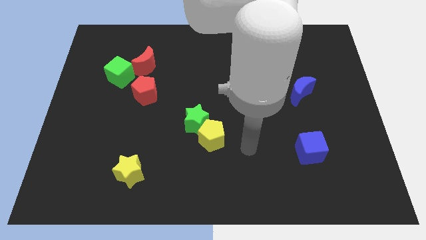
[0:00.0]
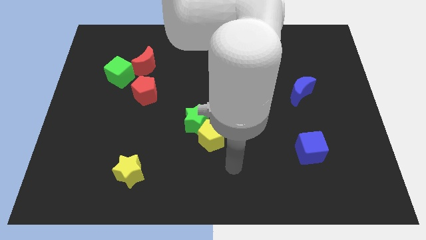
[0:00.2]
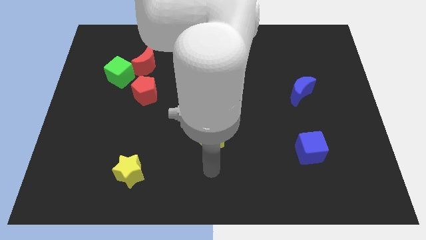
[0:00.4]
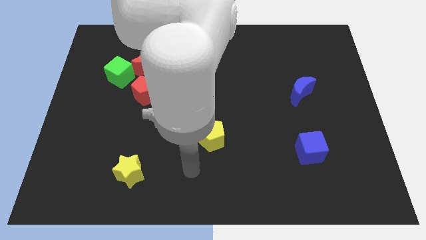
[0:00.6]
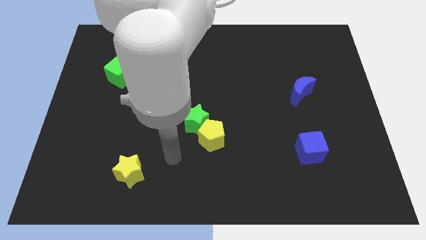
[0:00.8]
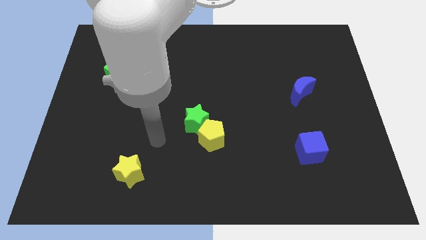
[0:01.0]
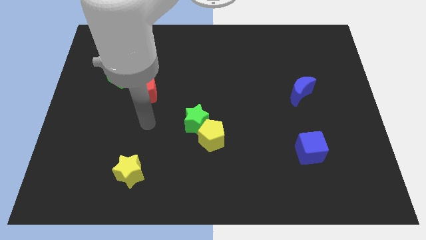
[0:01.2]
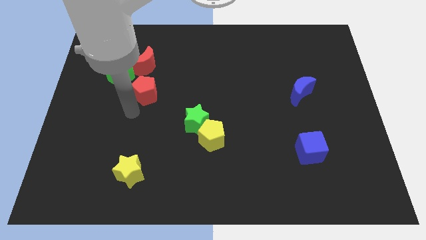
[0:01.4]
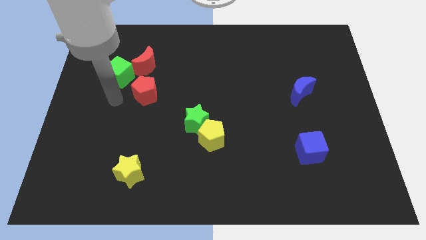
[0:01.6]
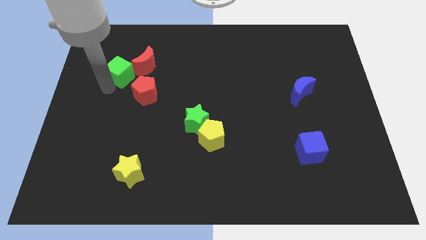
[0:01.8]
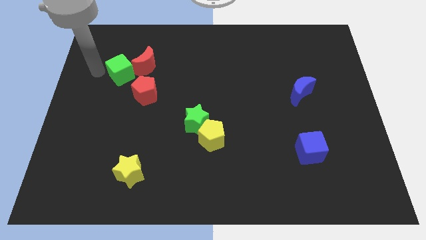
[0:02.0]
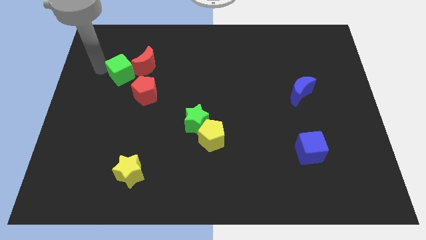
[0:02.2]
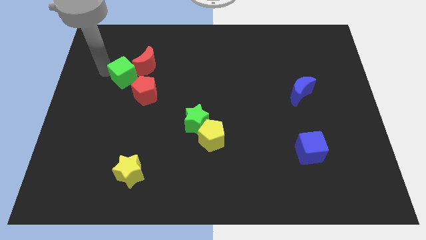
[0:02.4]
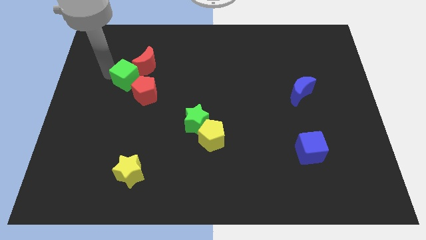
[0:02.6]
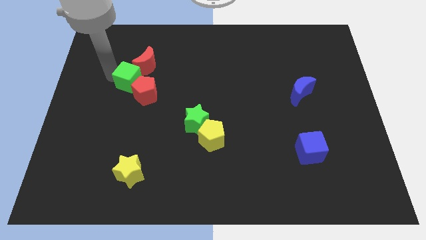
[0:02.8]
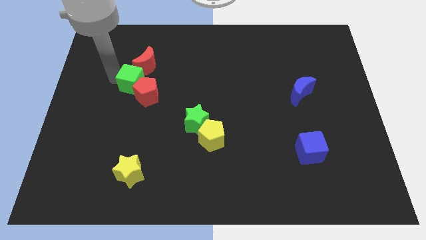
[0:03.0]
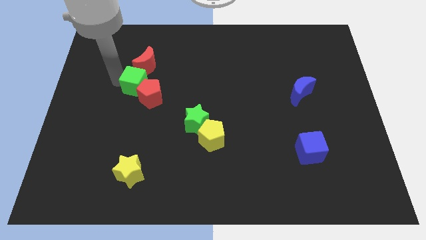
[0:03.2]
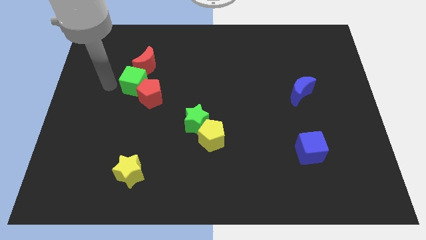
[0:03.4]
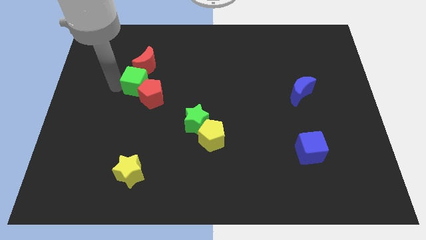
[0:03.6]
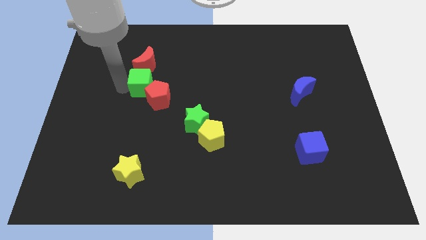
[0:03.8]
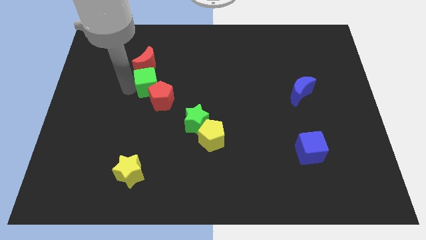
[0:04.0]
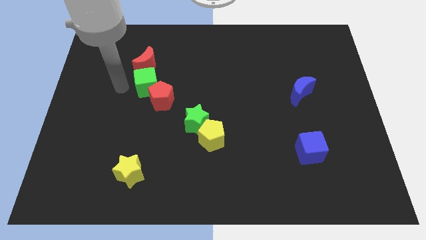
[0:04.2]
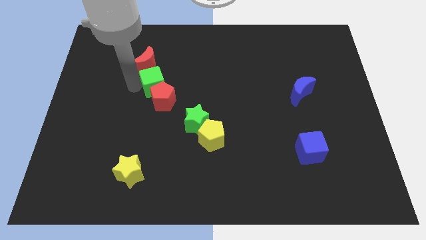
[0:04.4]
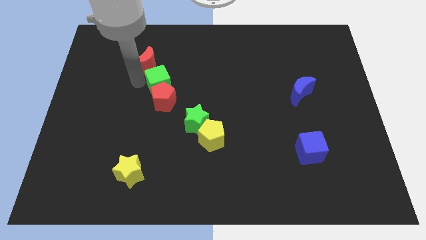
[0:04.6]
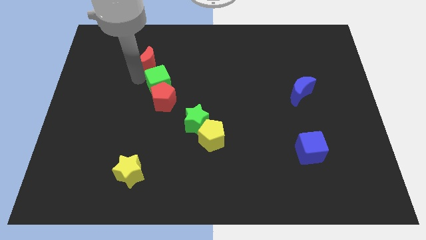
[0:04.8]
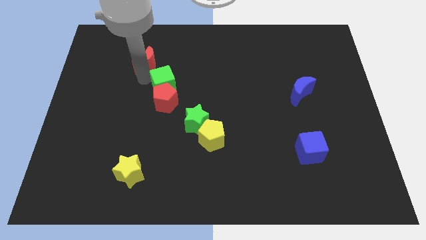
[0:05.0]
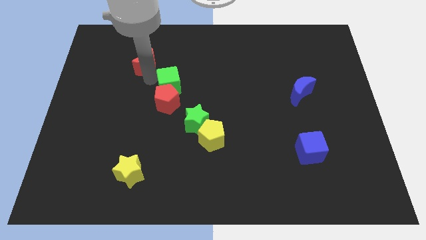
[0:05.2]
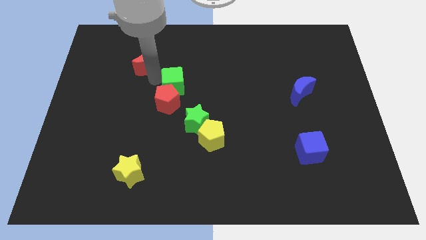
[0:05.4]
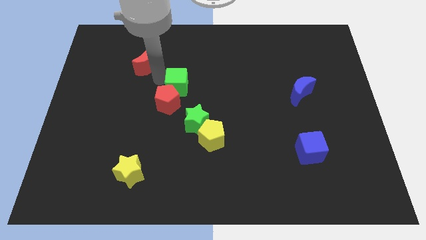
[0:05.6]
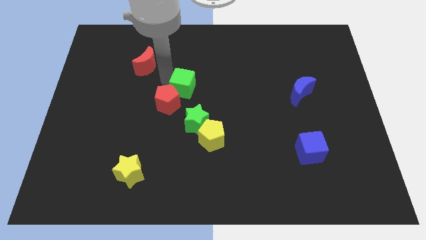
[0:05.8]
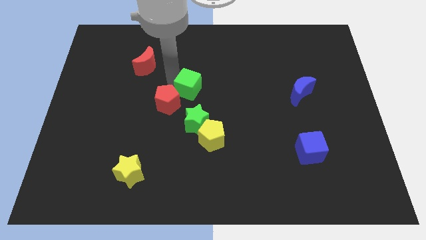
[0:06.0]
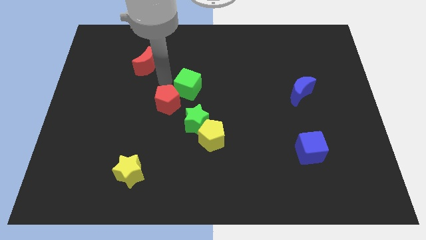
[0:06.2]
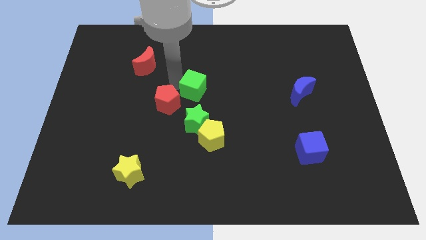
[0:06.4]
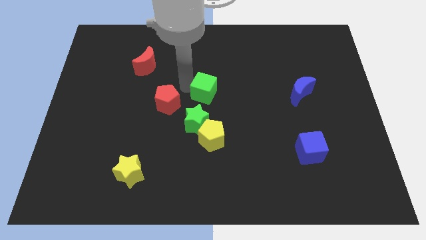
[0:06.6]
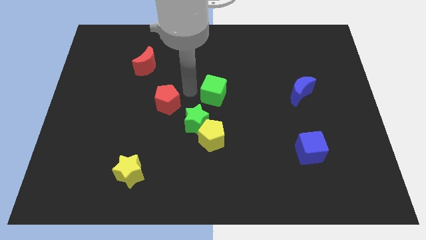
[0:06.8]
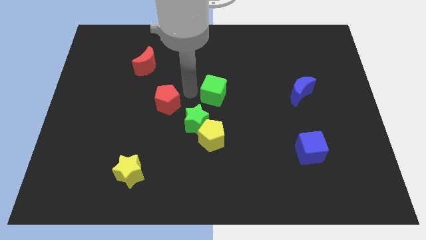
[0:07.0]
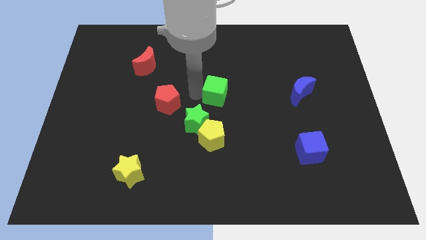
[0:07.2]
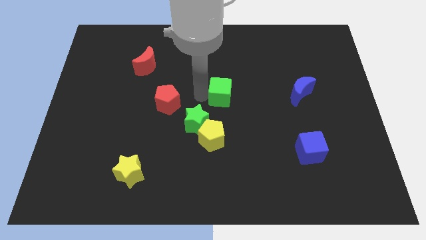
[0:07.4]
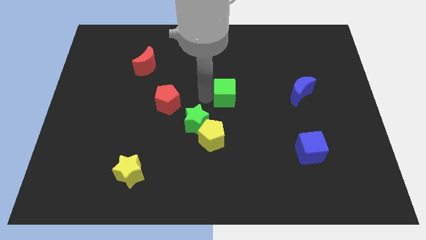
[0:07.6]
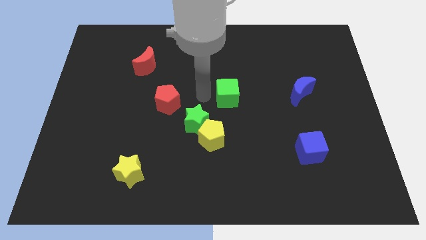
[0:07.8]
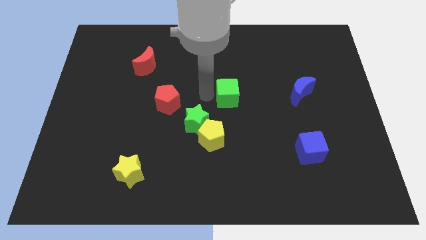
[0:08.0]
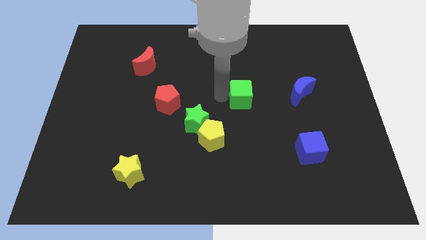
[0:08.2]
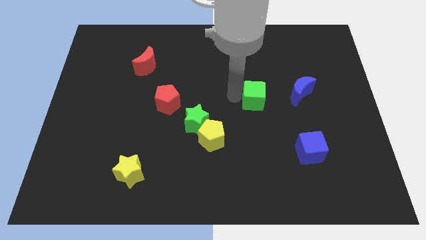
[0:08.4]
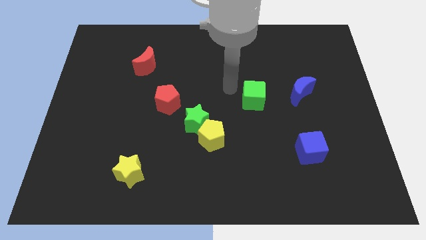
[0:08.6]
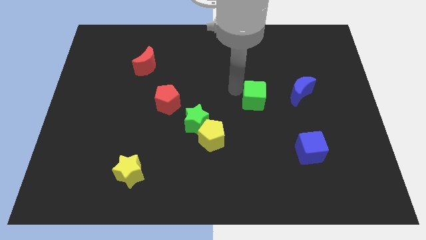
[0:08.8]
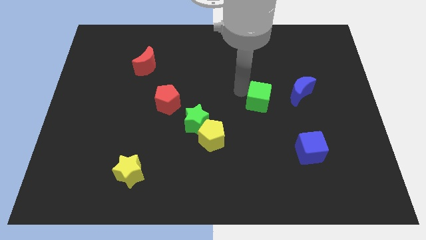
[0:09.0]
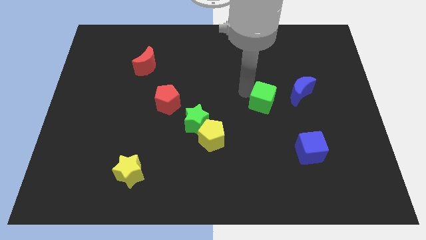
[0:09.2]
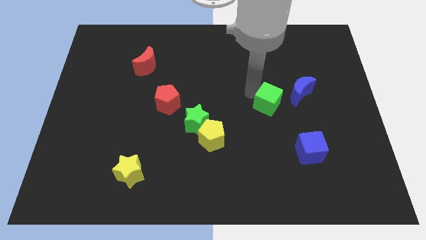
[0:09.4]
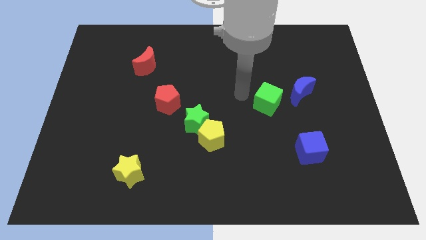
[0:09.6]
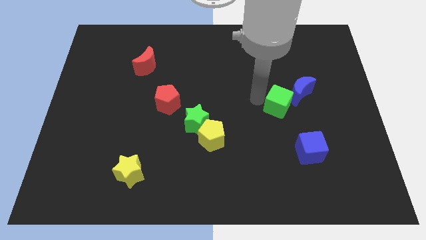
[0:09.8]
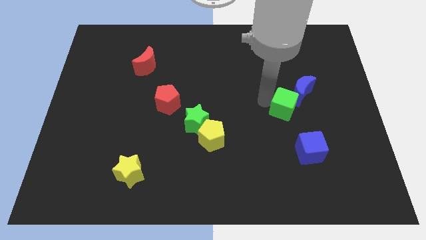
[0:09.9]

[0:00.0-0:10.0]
move the green cube above the blue cube

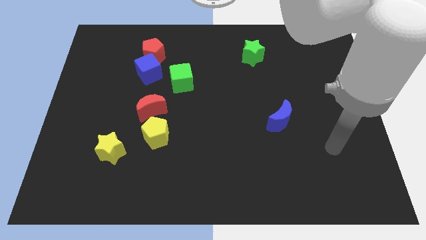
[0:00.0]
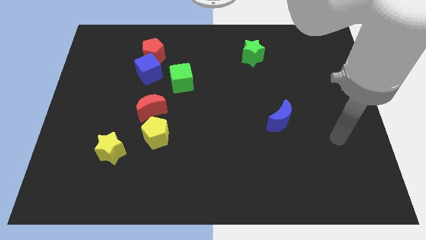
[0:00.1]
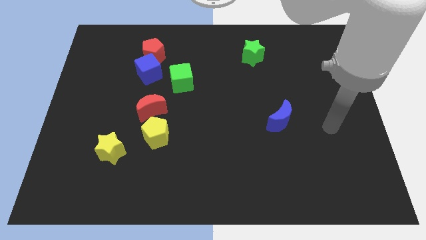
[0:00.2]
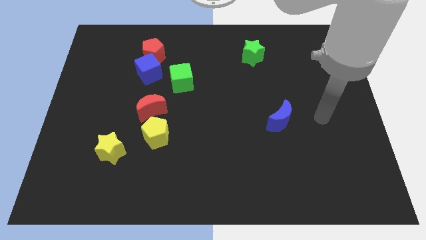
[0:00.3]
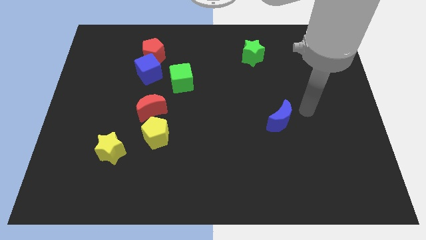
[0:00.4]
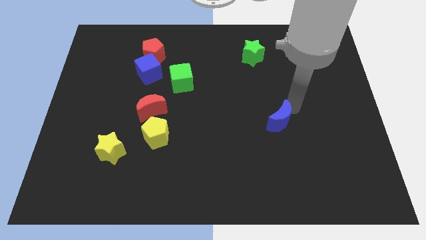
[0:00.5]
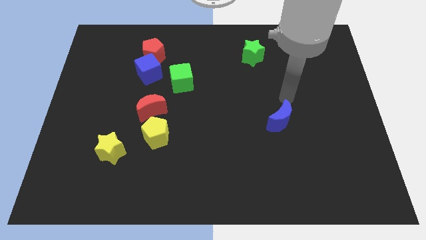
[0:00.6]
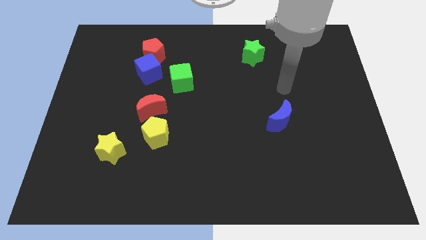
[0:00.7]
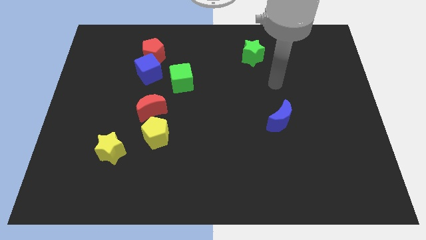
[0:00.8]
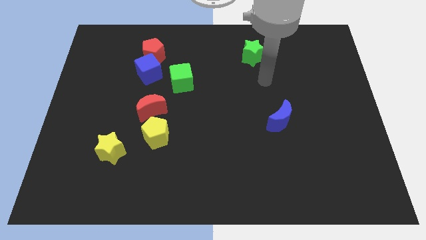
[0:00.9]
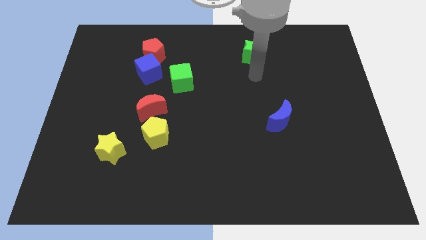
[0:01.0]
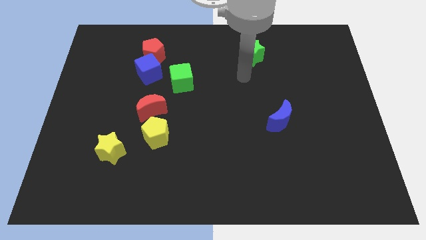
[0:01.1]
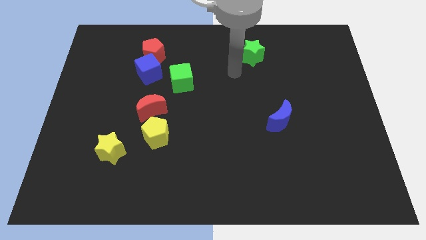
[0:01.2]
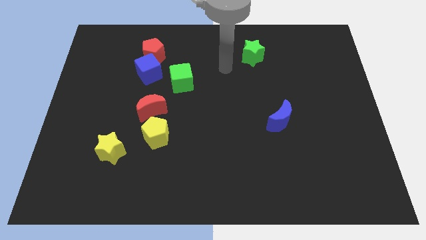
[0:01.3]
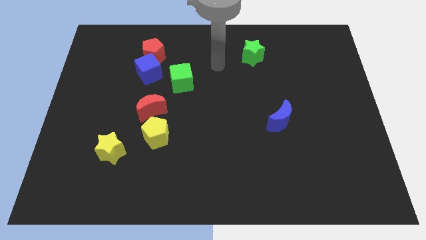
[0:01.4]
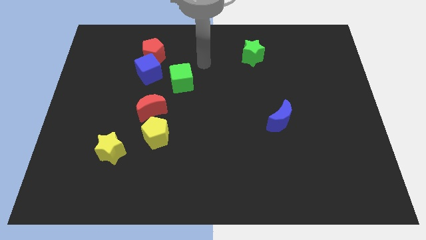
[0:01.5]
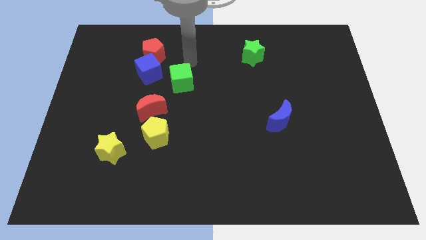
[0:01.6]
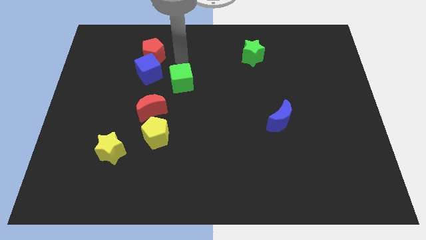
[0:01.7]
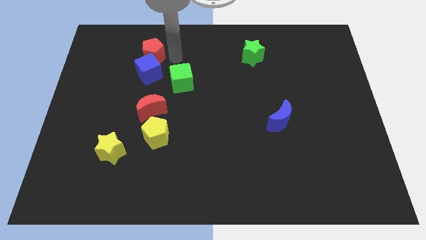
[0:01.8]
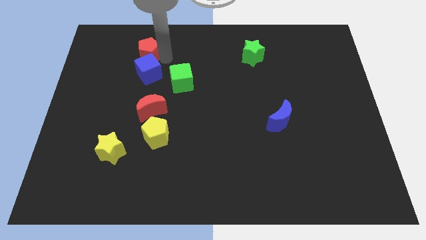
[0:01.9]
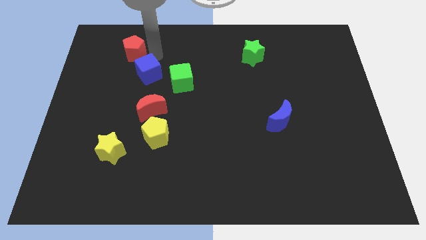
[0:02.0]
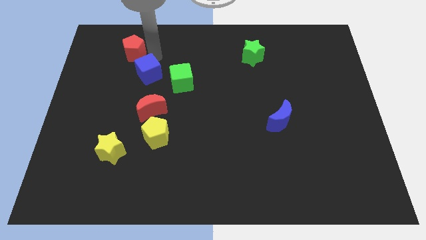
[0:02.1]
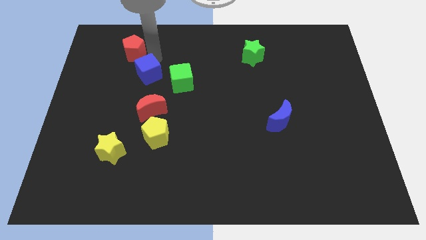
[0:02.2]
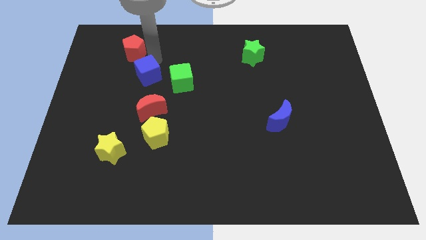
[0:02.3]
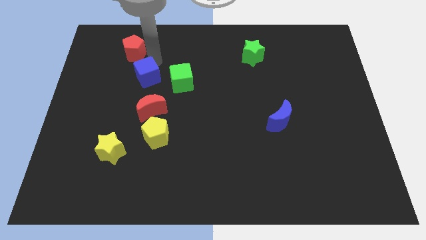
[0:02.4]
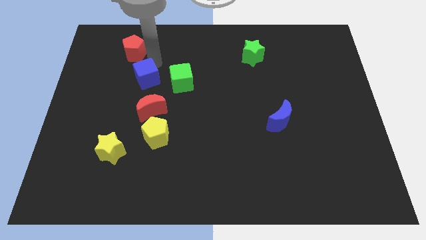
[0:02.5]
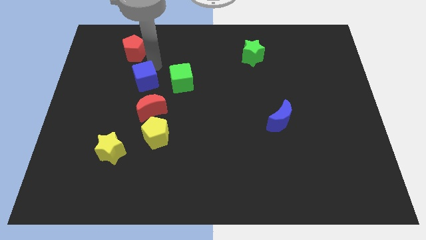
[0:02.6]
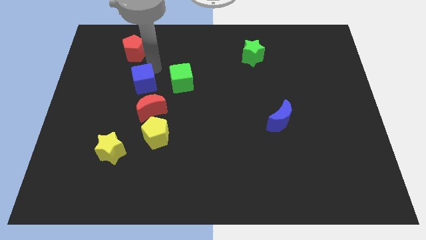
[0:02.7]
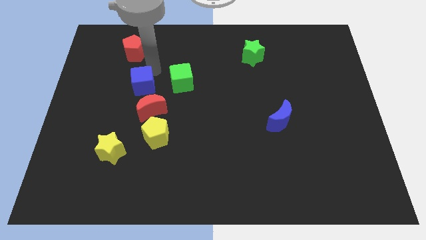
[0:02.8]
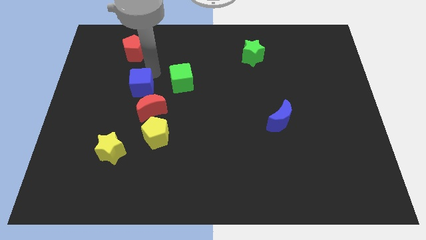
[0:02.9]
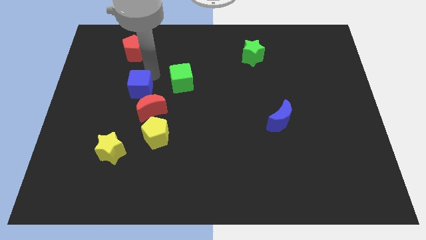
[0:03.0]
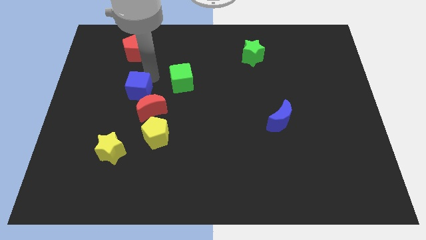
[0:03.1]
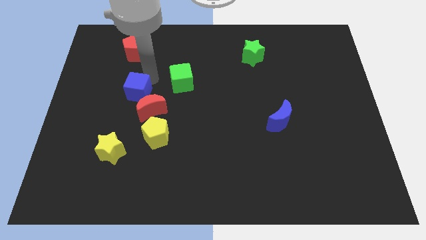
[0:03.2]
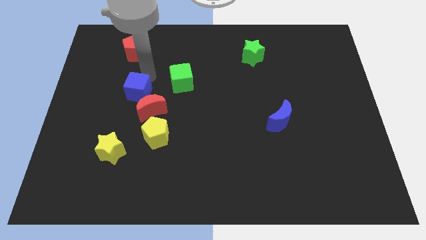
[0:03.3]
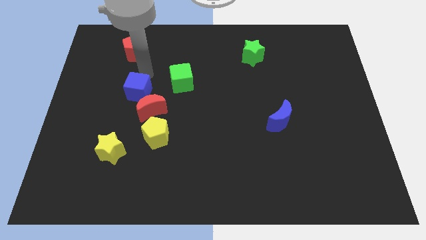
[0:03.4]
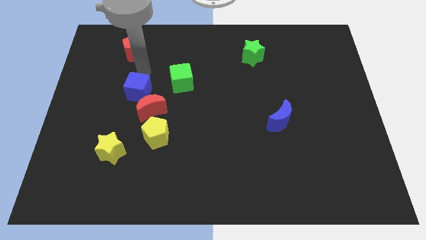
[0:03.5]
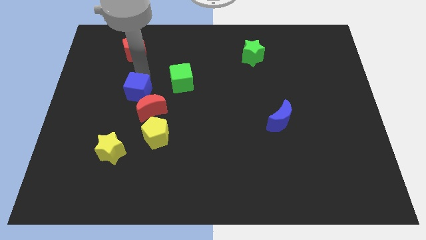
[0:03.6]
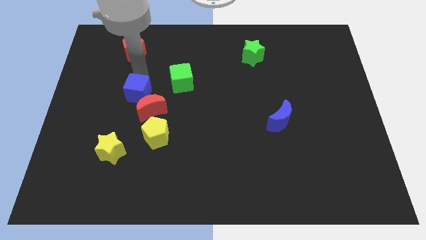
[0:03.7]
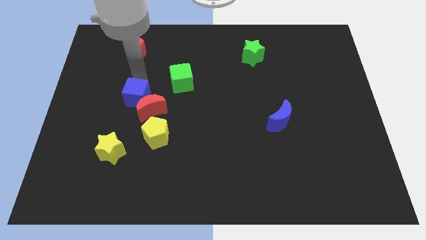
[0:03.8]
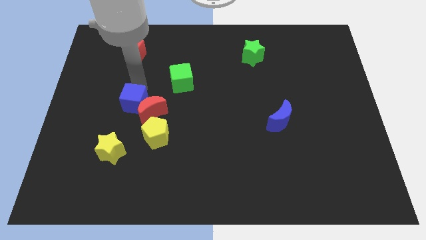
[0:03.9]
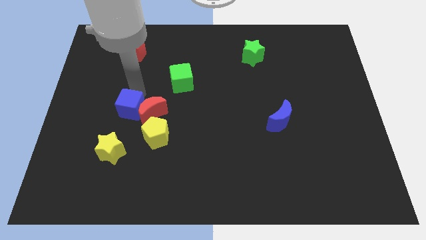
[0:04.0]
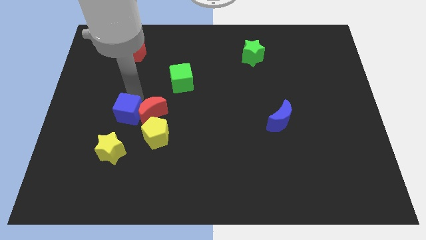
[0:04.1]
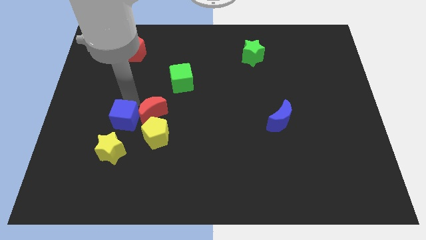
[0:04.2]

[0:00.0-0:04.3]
push the blue cube to the top right of the yellow star
